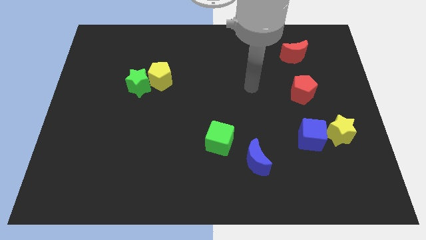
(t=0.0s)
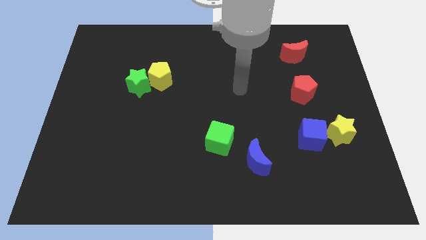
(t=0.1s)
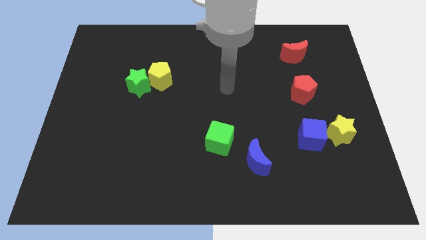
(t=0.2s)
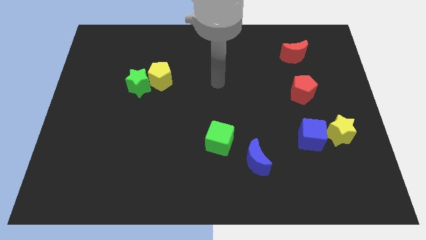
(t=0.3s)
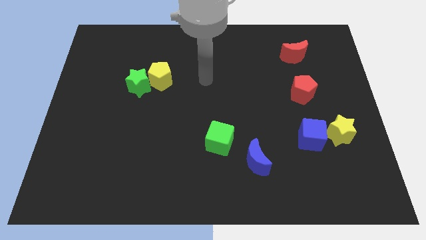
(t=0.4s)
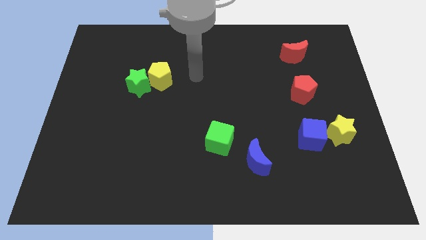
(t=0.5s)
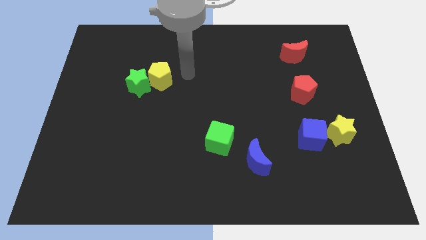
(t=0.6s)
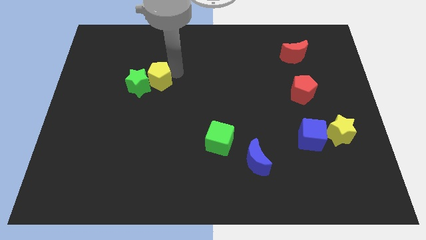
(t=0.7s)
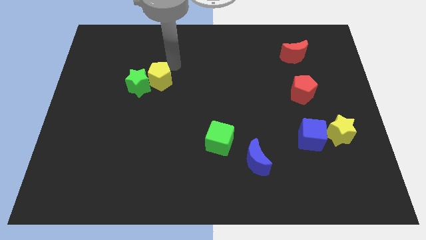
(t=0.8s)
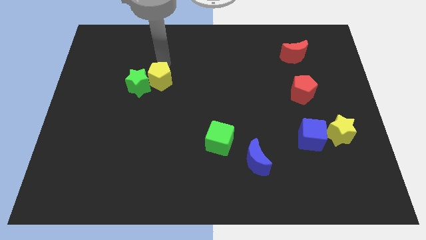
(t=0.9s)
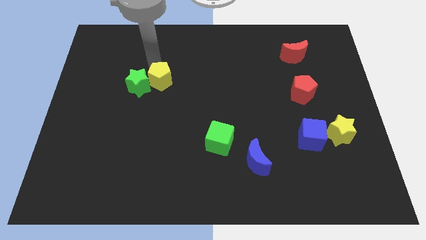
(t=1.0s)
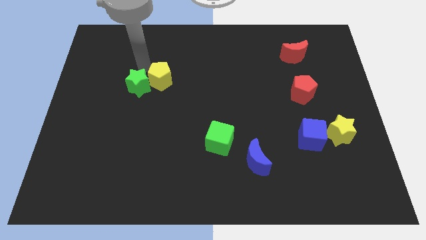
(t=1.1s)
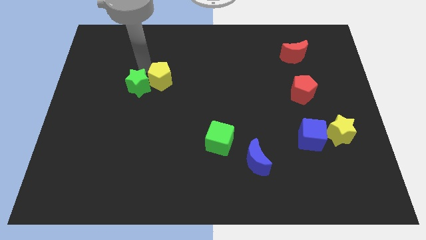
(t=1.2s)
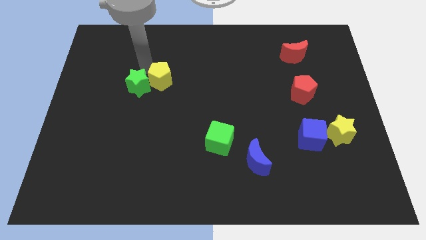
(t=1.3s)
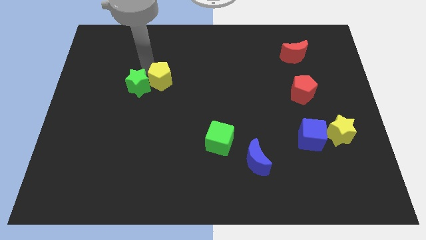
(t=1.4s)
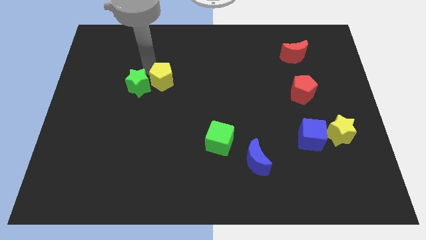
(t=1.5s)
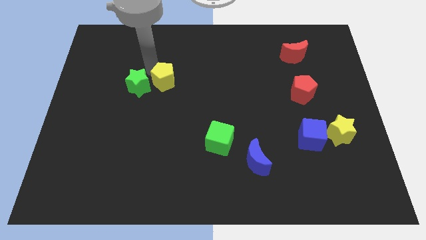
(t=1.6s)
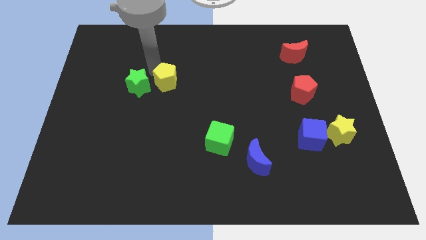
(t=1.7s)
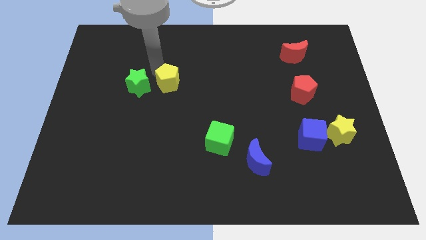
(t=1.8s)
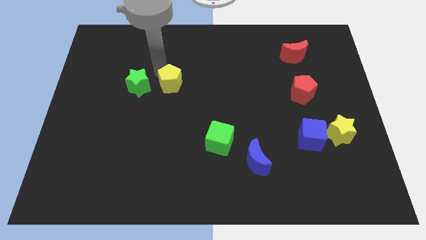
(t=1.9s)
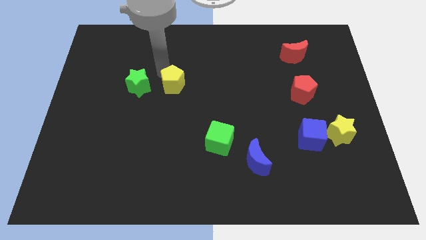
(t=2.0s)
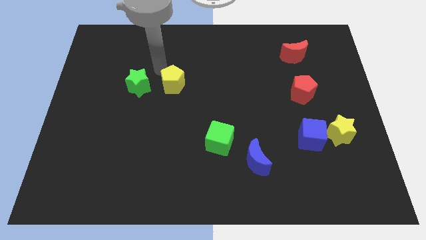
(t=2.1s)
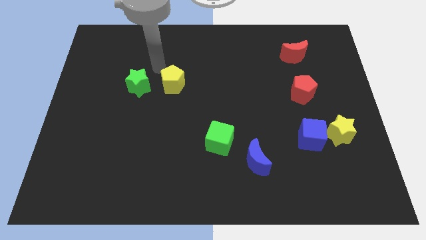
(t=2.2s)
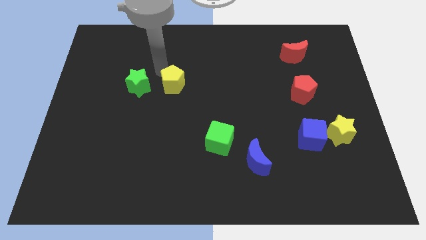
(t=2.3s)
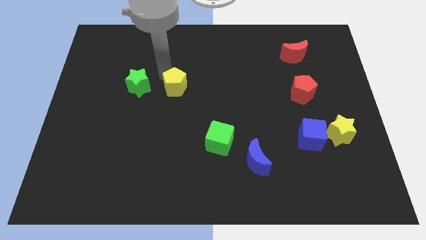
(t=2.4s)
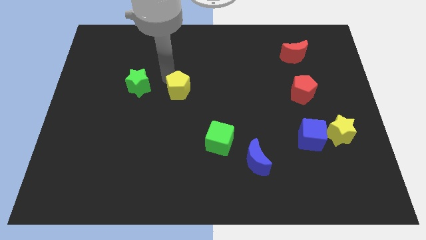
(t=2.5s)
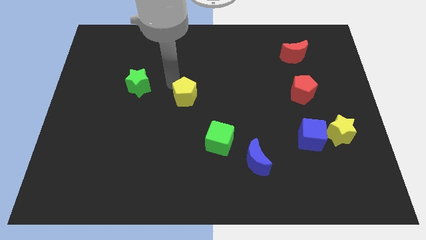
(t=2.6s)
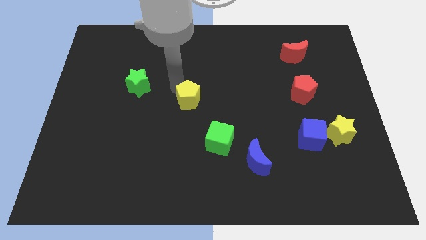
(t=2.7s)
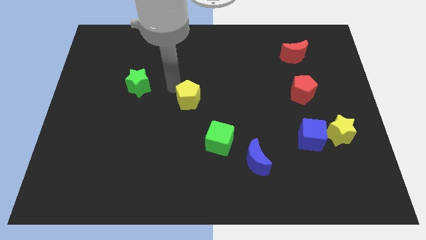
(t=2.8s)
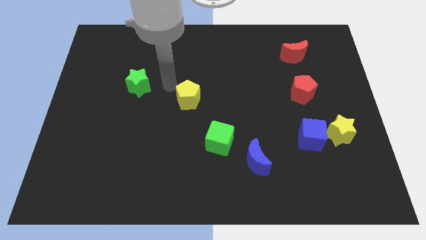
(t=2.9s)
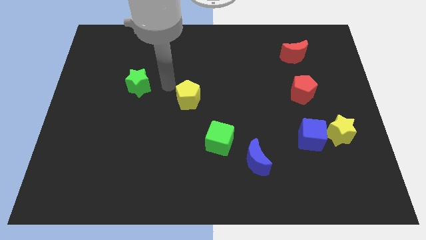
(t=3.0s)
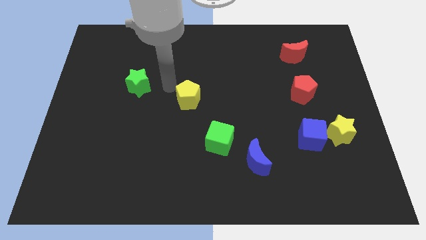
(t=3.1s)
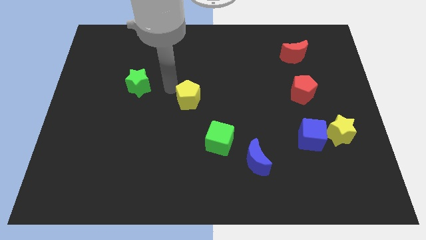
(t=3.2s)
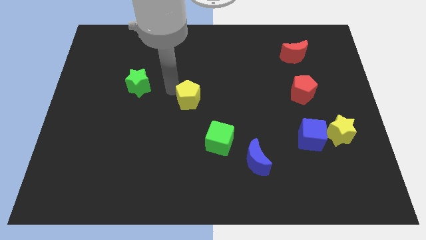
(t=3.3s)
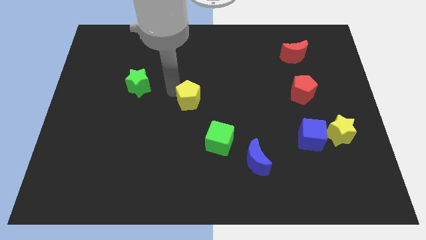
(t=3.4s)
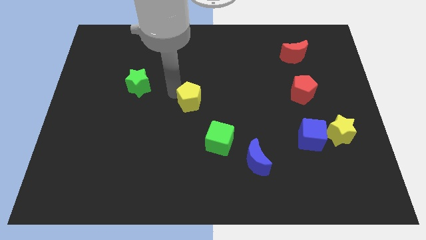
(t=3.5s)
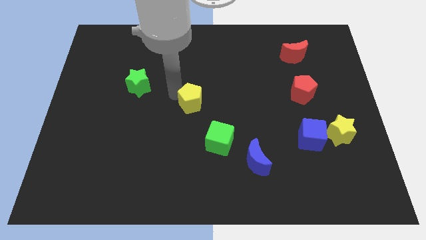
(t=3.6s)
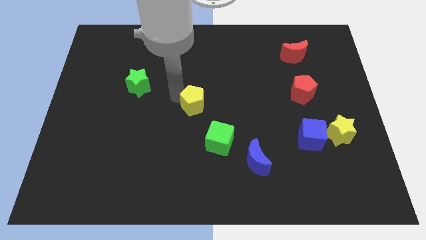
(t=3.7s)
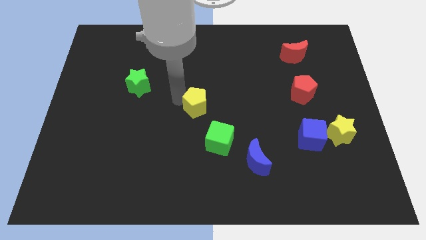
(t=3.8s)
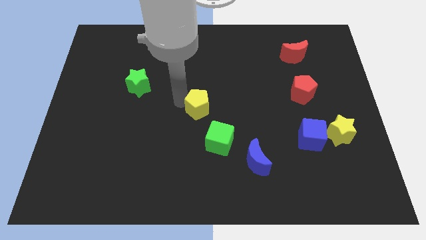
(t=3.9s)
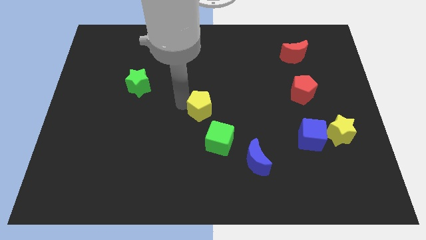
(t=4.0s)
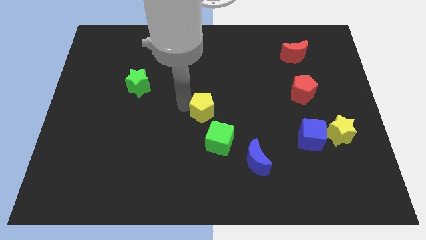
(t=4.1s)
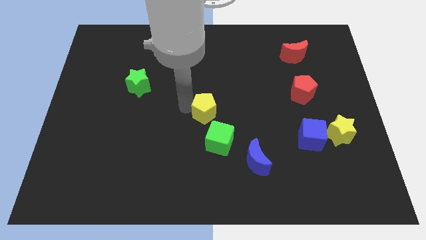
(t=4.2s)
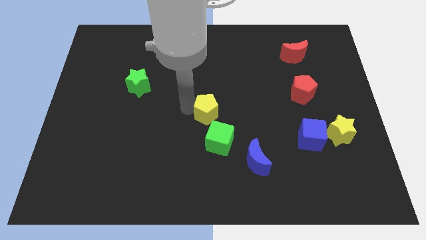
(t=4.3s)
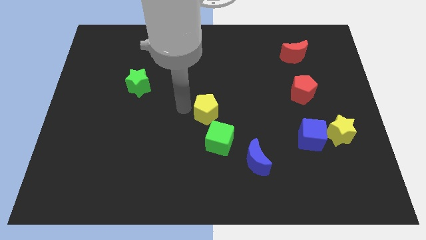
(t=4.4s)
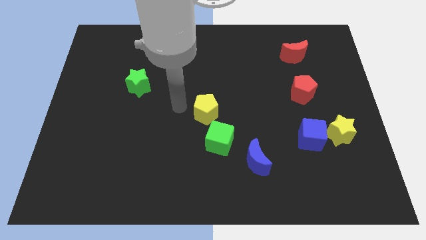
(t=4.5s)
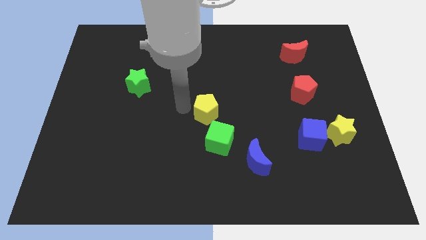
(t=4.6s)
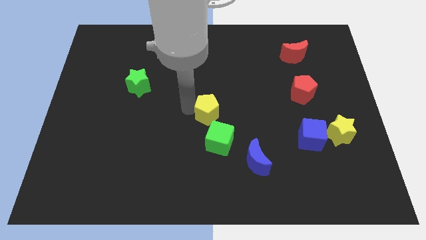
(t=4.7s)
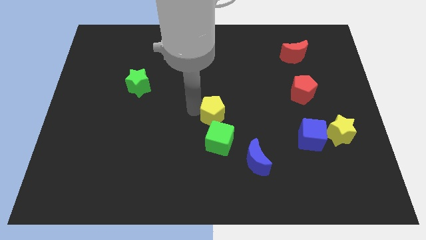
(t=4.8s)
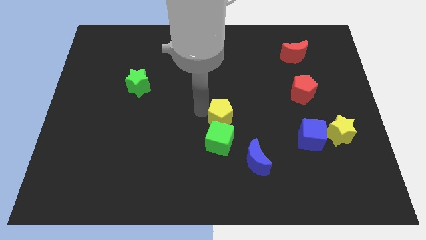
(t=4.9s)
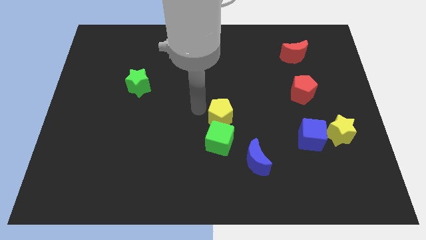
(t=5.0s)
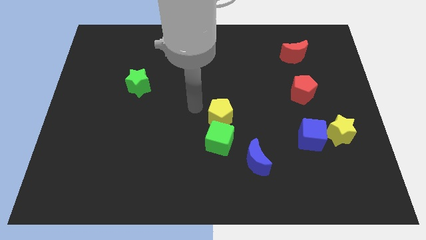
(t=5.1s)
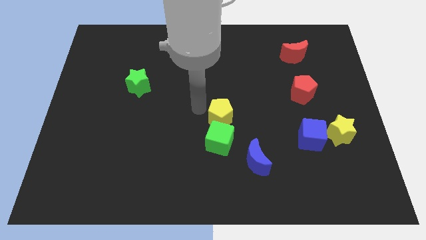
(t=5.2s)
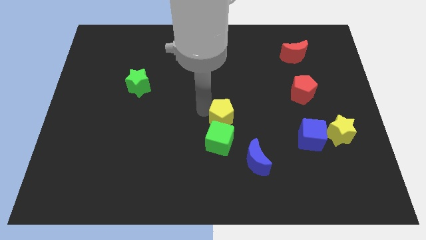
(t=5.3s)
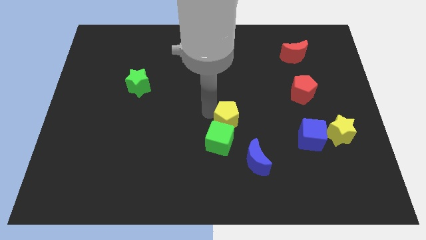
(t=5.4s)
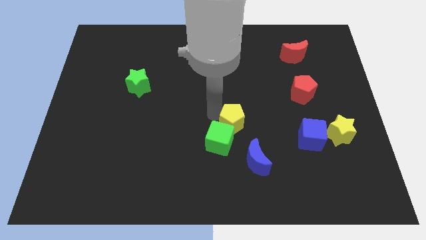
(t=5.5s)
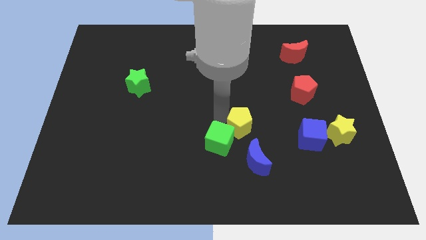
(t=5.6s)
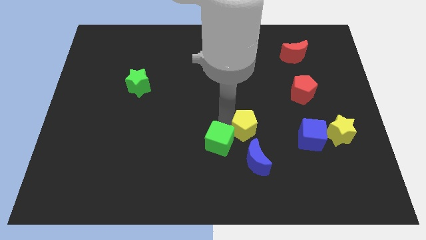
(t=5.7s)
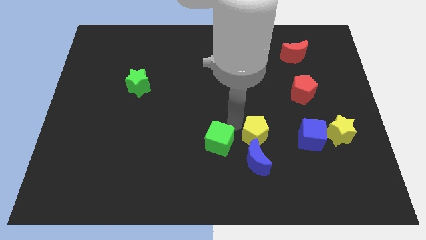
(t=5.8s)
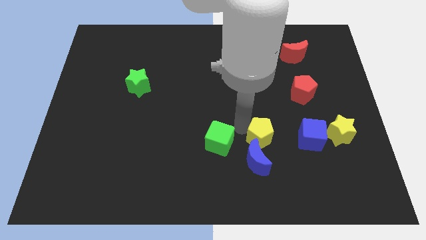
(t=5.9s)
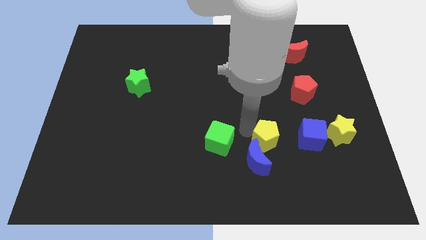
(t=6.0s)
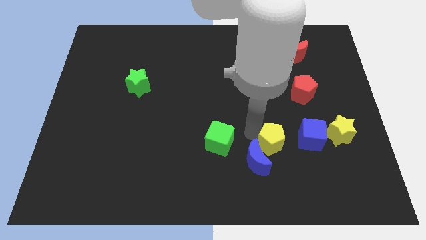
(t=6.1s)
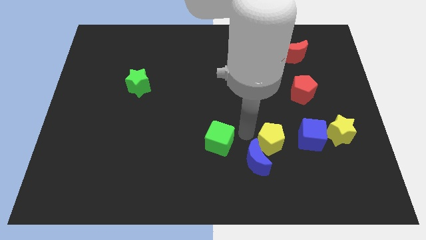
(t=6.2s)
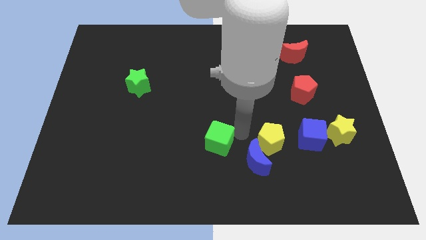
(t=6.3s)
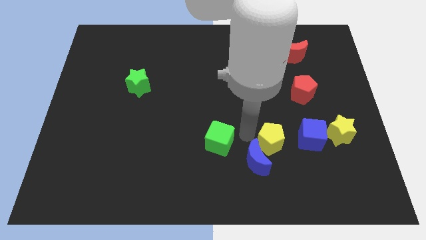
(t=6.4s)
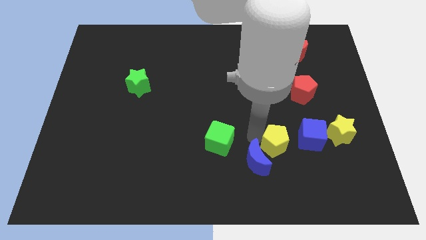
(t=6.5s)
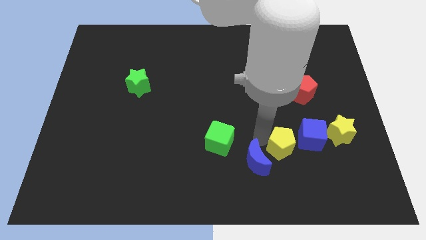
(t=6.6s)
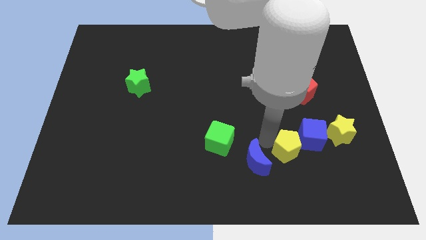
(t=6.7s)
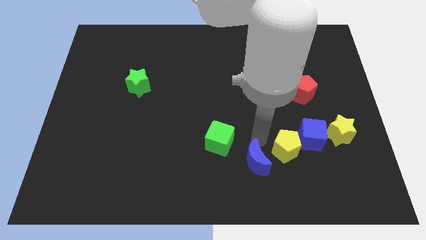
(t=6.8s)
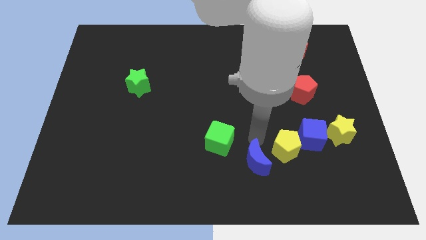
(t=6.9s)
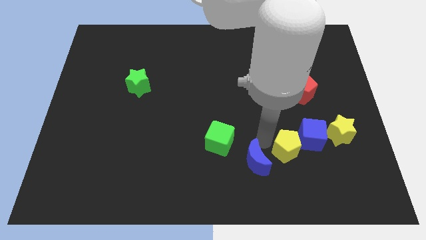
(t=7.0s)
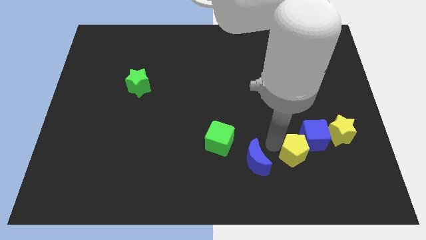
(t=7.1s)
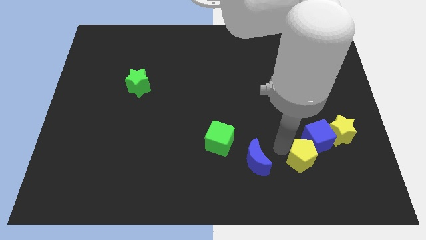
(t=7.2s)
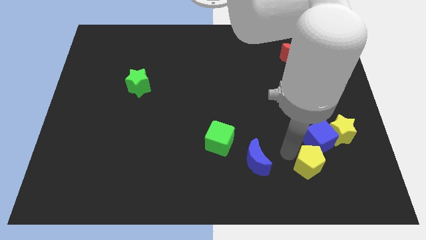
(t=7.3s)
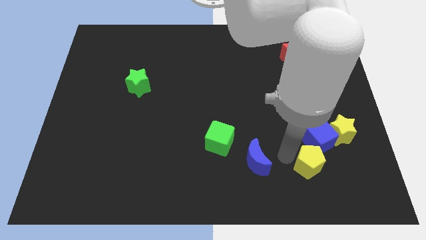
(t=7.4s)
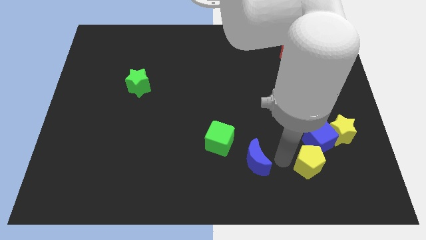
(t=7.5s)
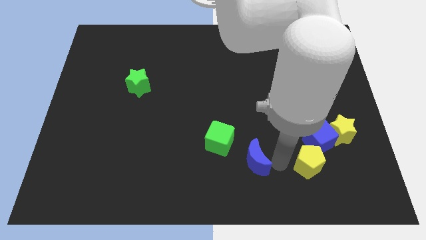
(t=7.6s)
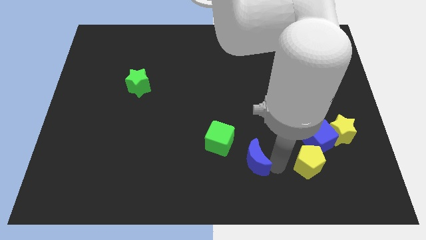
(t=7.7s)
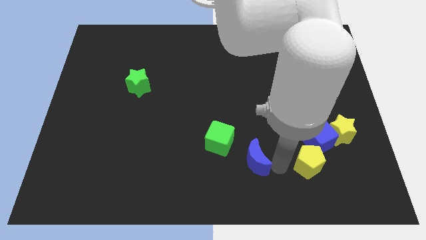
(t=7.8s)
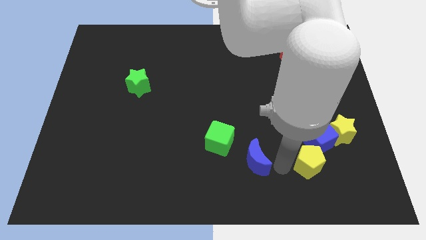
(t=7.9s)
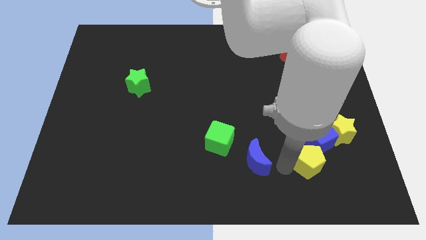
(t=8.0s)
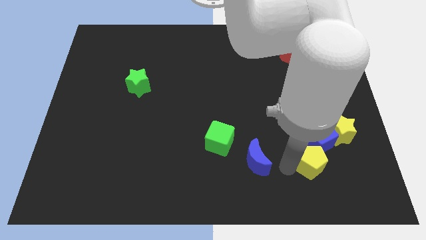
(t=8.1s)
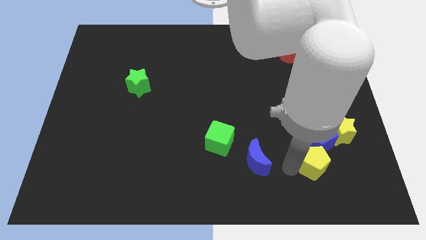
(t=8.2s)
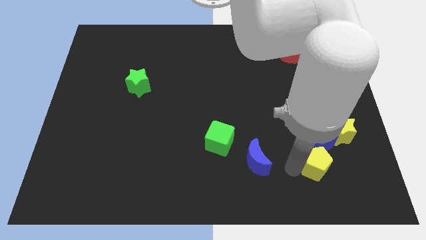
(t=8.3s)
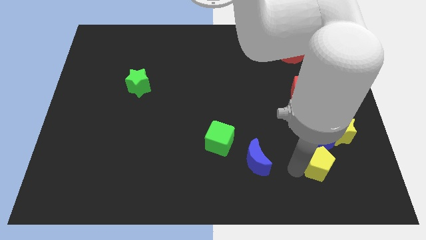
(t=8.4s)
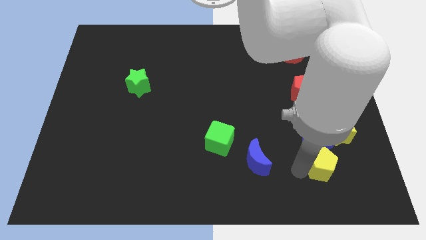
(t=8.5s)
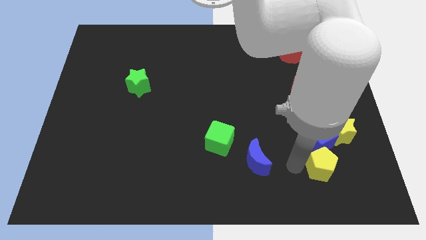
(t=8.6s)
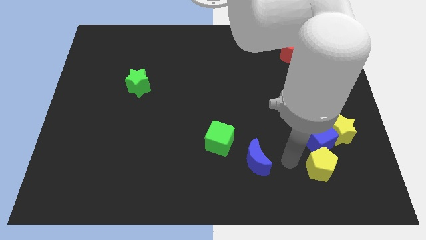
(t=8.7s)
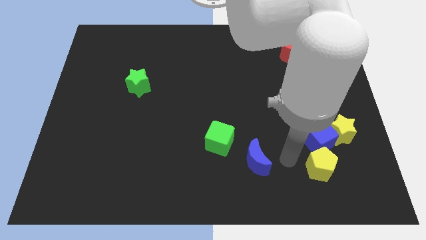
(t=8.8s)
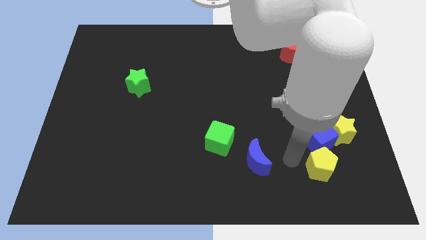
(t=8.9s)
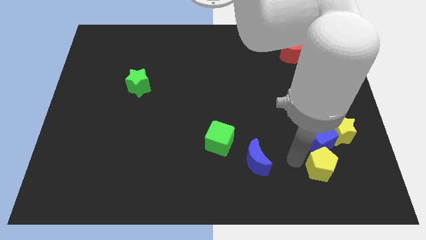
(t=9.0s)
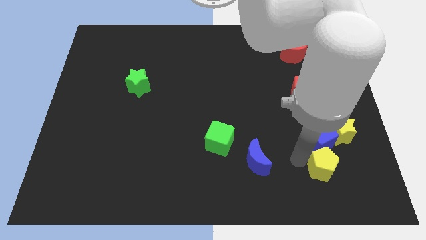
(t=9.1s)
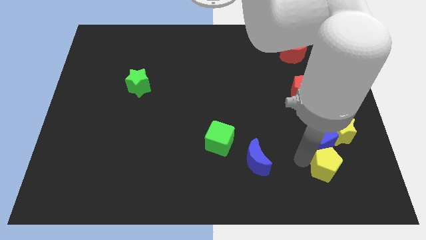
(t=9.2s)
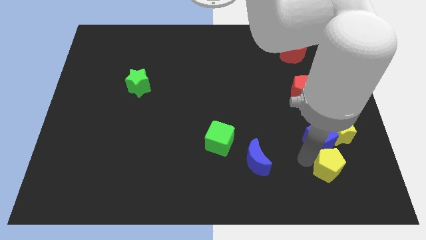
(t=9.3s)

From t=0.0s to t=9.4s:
slide the yellow pentagon below the yellow star
